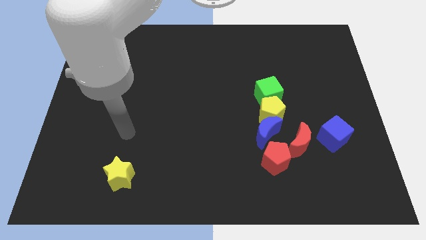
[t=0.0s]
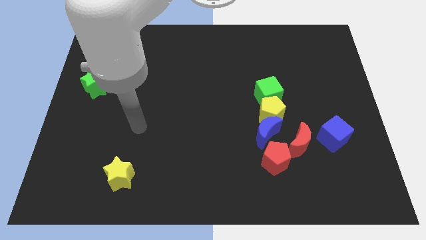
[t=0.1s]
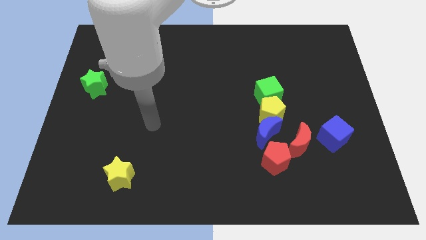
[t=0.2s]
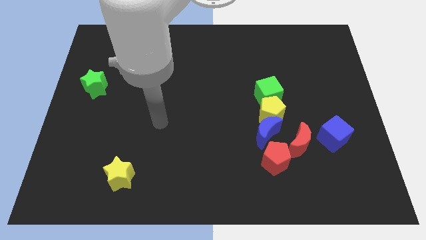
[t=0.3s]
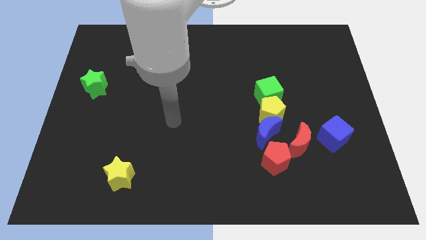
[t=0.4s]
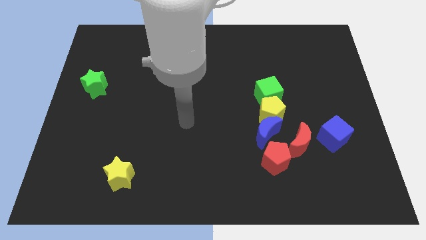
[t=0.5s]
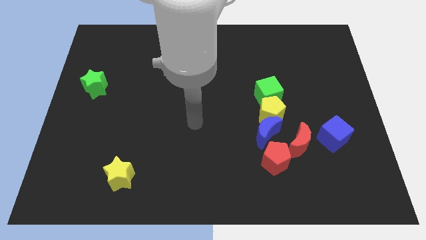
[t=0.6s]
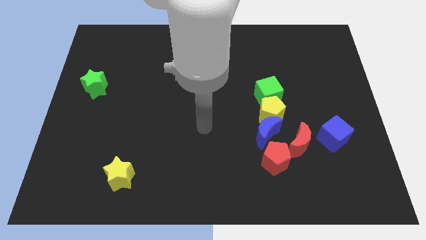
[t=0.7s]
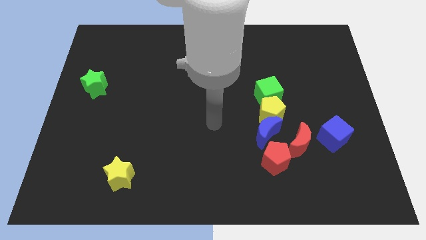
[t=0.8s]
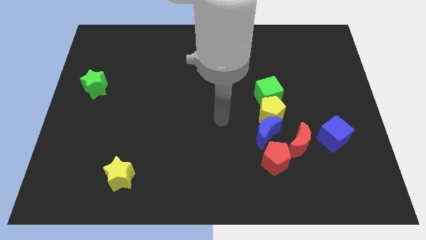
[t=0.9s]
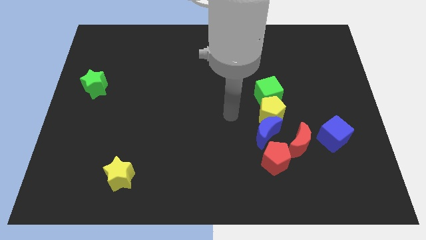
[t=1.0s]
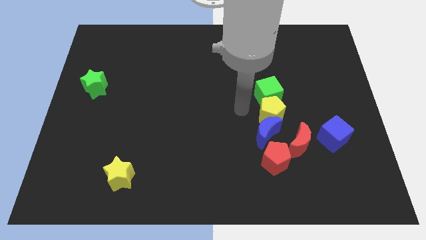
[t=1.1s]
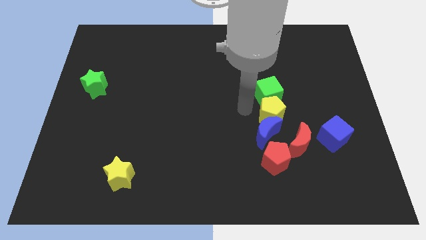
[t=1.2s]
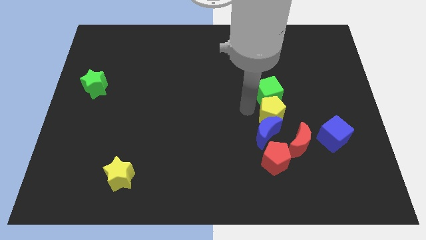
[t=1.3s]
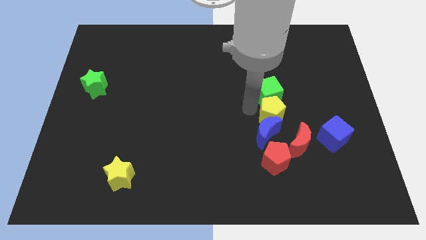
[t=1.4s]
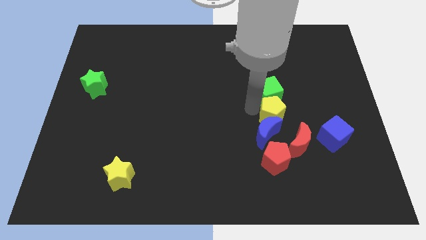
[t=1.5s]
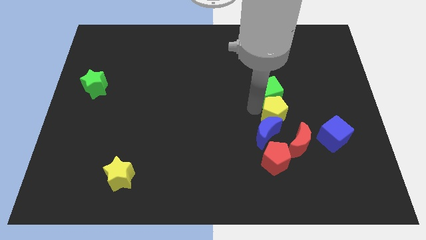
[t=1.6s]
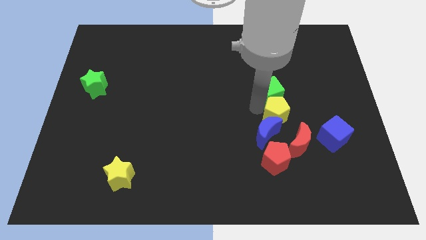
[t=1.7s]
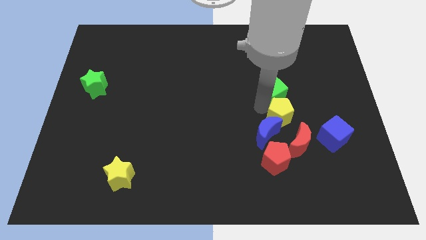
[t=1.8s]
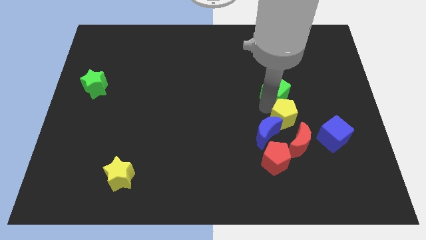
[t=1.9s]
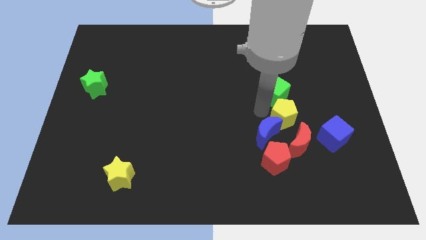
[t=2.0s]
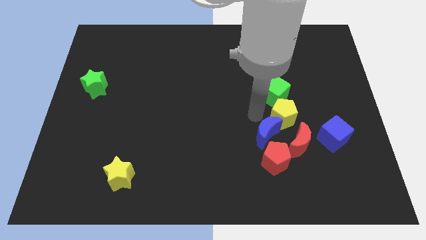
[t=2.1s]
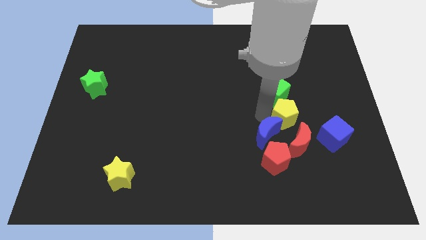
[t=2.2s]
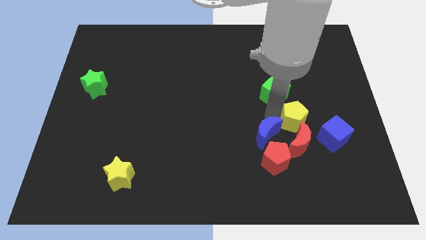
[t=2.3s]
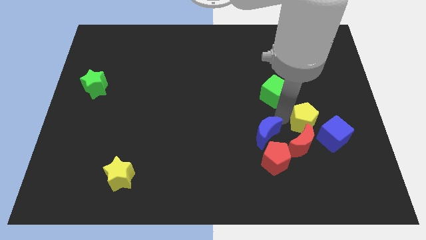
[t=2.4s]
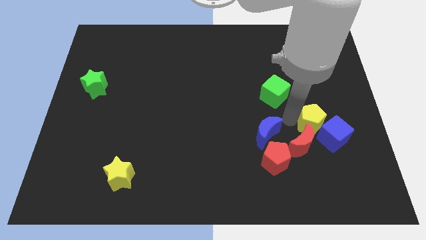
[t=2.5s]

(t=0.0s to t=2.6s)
slide the yellow pentagon a bit downwards and to the right diagonally

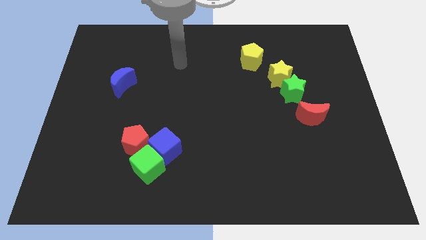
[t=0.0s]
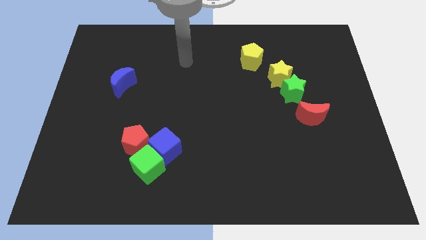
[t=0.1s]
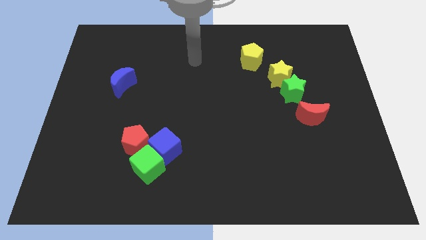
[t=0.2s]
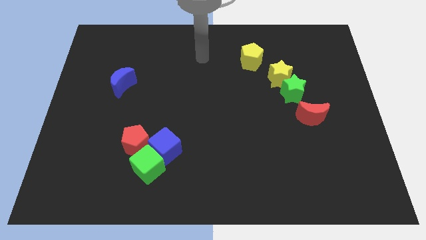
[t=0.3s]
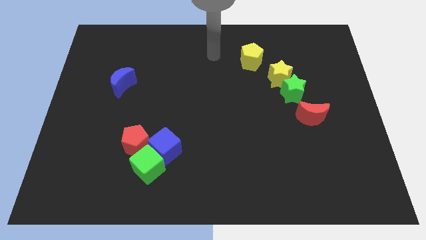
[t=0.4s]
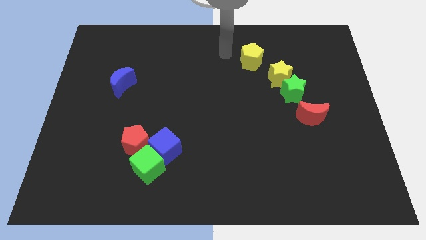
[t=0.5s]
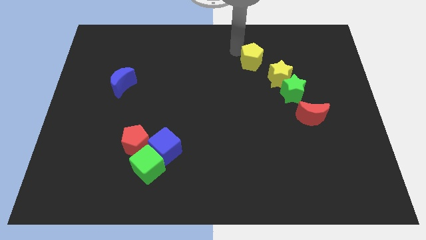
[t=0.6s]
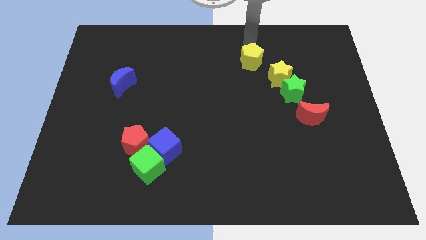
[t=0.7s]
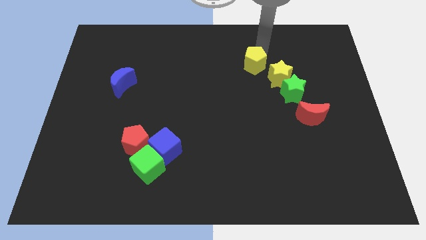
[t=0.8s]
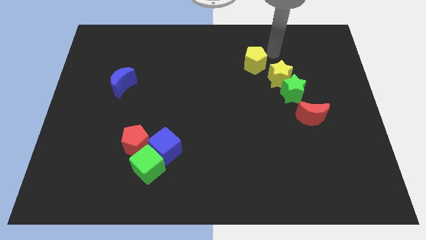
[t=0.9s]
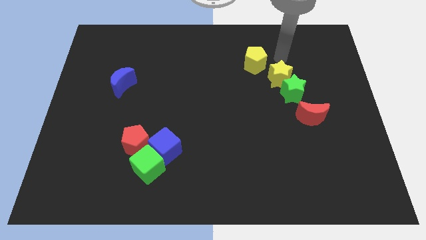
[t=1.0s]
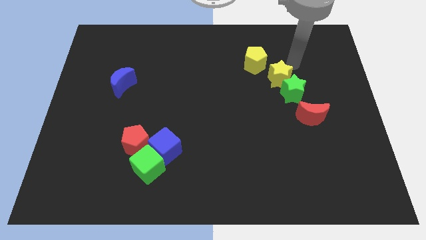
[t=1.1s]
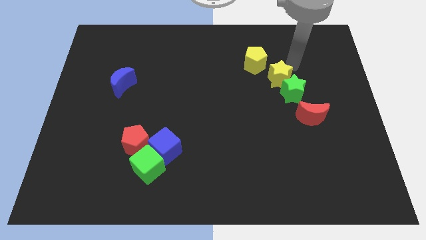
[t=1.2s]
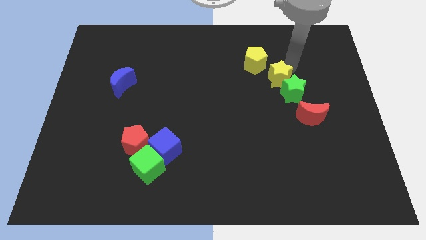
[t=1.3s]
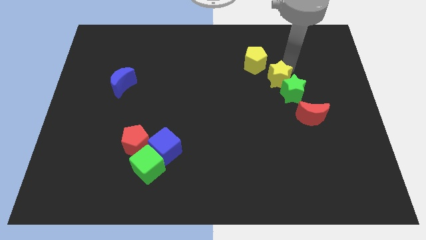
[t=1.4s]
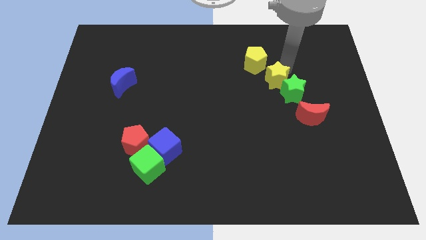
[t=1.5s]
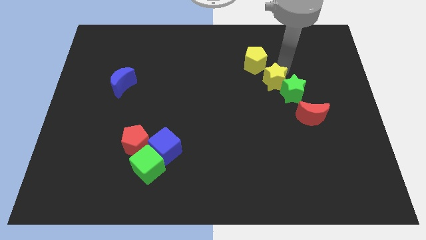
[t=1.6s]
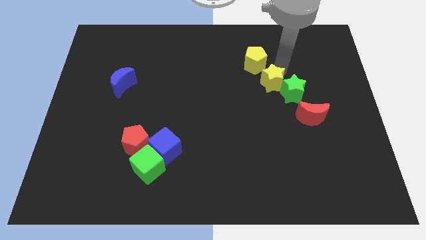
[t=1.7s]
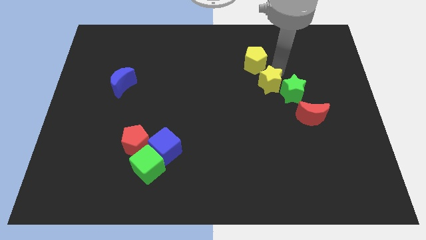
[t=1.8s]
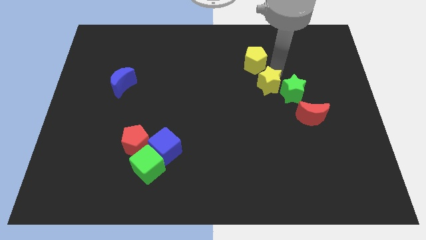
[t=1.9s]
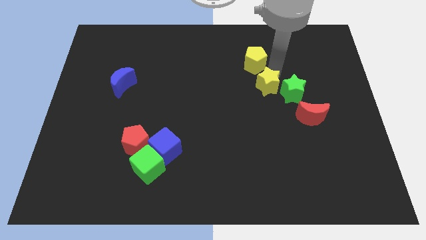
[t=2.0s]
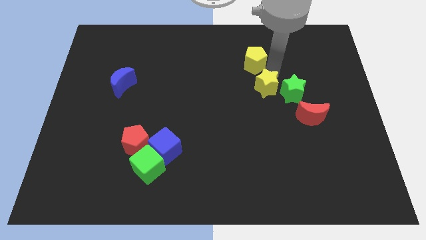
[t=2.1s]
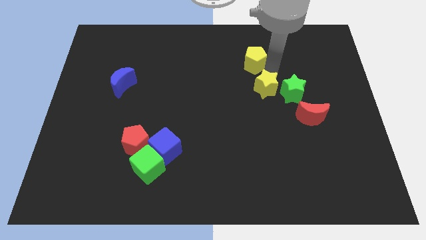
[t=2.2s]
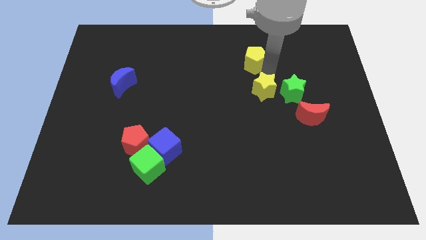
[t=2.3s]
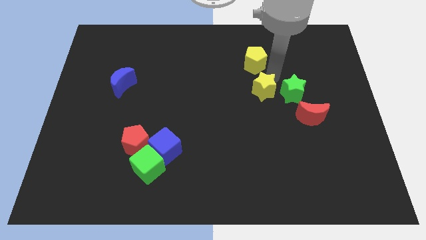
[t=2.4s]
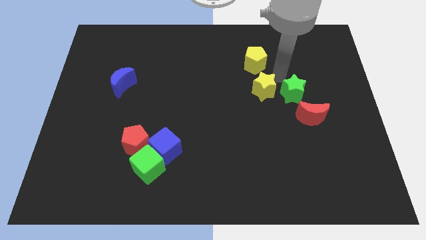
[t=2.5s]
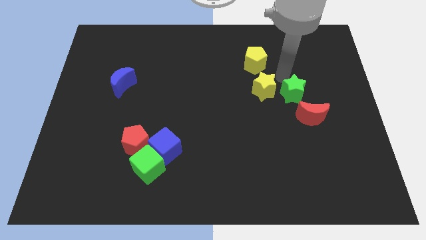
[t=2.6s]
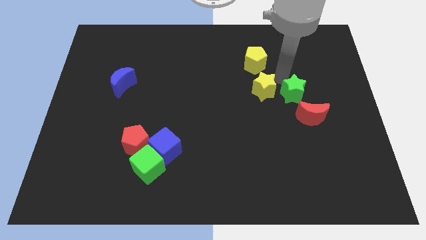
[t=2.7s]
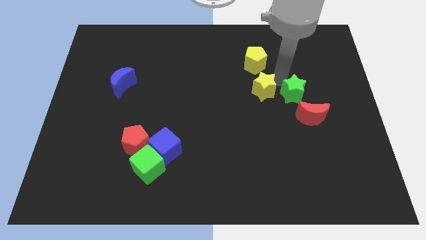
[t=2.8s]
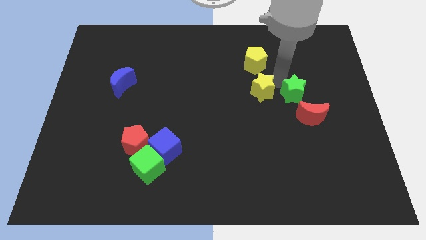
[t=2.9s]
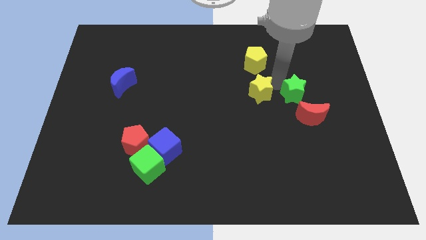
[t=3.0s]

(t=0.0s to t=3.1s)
push the yellow star a little downwards and left diagonally

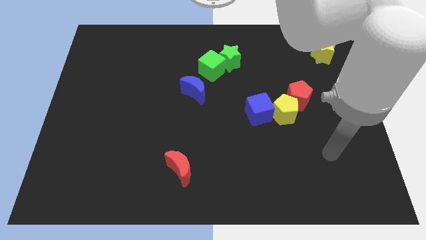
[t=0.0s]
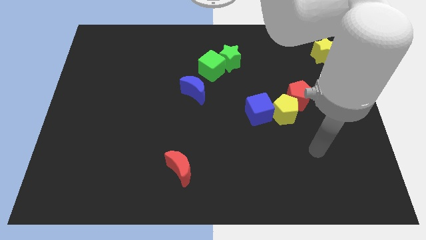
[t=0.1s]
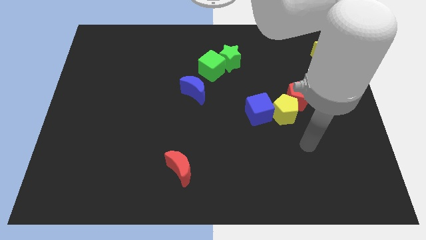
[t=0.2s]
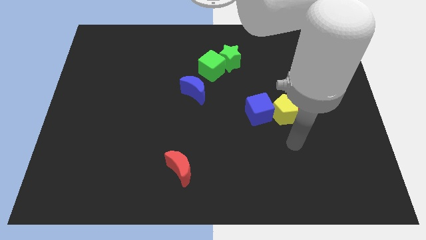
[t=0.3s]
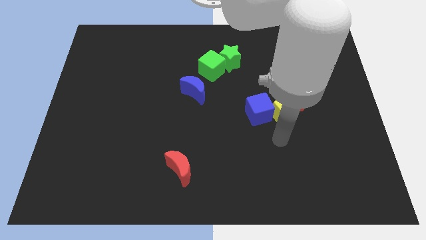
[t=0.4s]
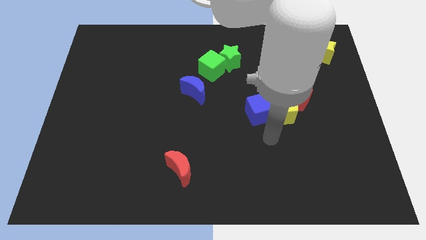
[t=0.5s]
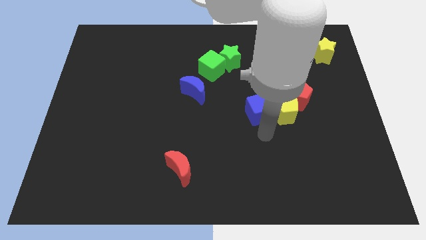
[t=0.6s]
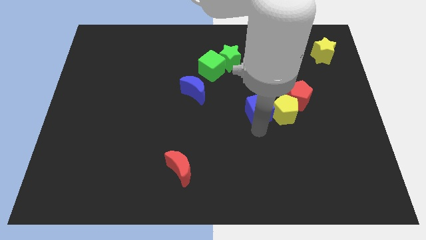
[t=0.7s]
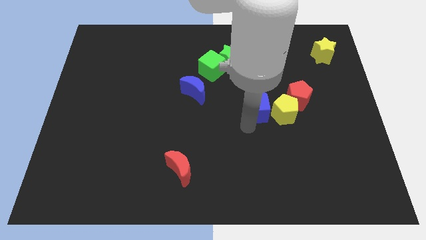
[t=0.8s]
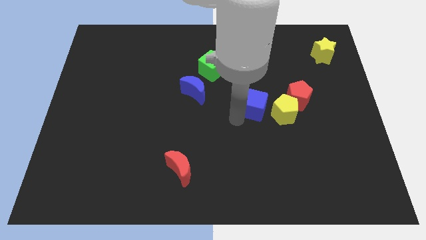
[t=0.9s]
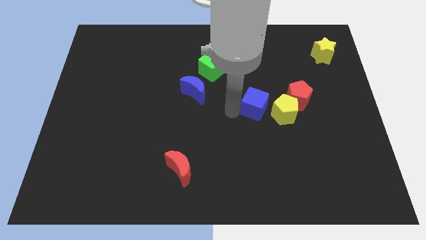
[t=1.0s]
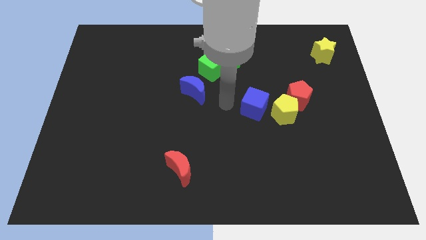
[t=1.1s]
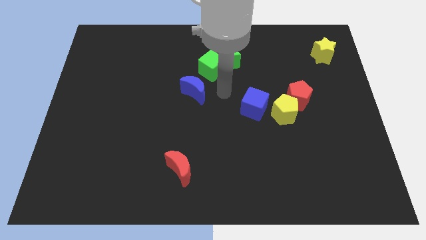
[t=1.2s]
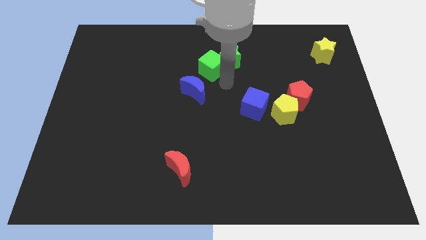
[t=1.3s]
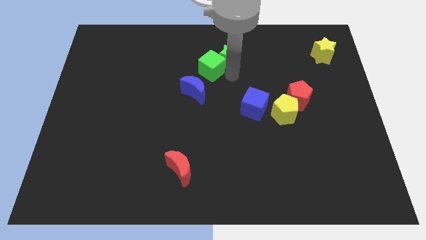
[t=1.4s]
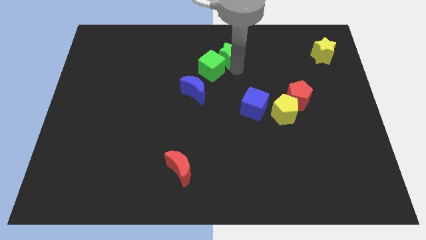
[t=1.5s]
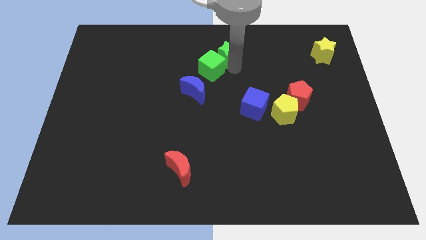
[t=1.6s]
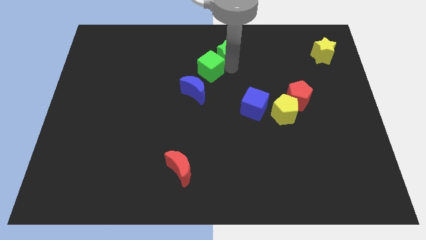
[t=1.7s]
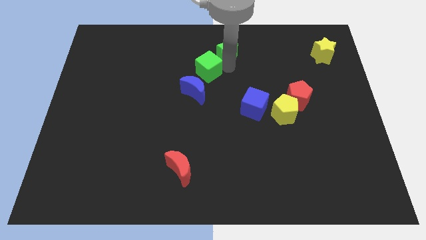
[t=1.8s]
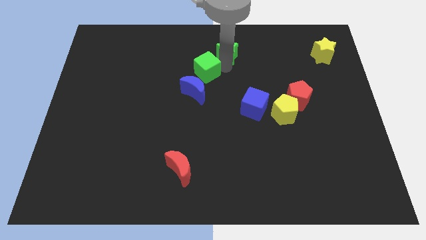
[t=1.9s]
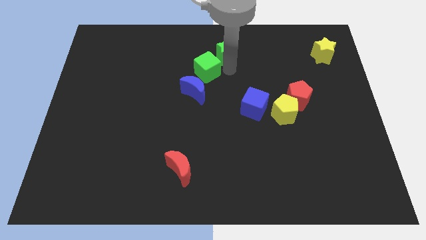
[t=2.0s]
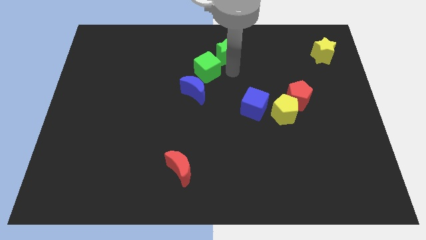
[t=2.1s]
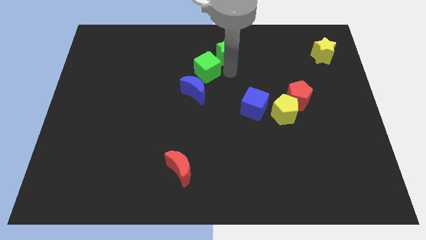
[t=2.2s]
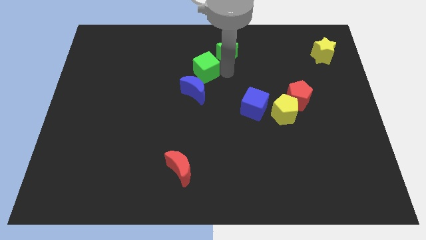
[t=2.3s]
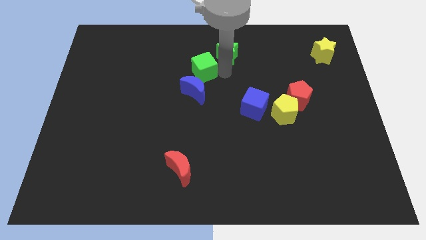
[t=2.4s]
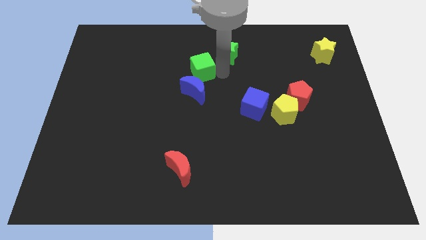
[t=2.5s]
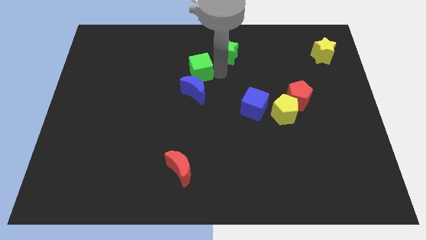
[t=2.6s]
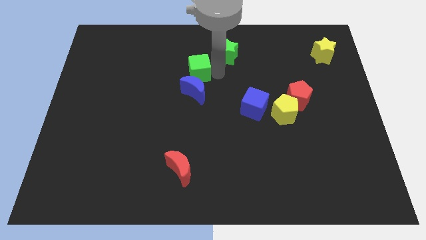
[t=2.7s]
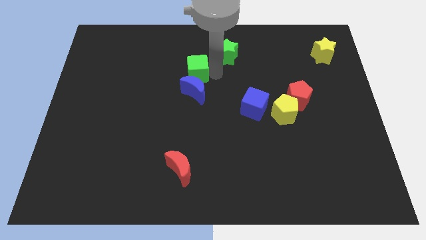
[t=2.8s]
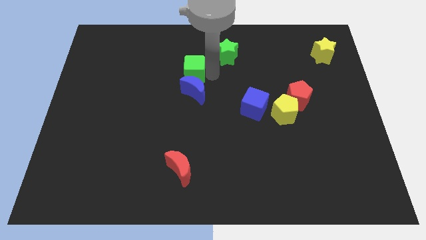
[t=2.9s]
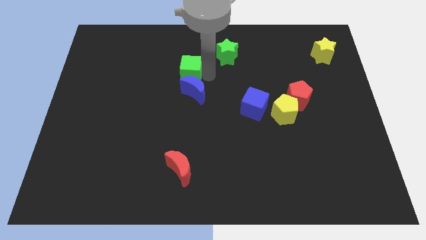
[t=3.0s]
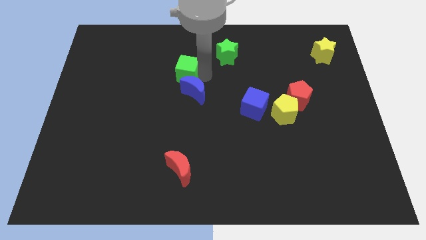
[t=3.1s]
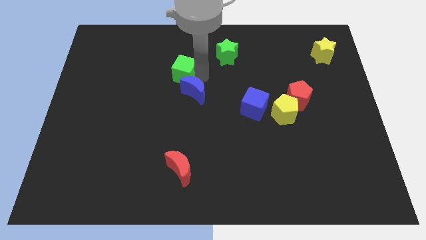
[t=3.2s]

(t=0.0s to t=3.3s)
slightly slide the green cube to the left
